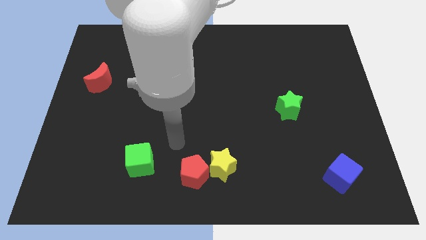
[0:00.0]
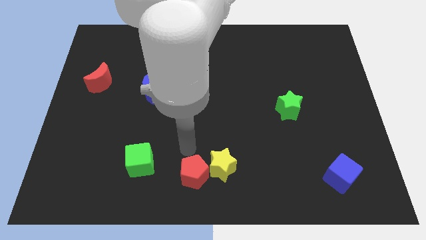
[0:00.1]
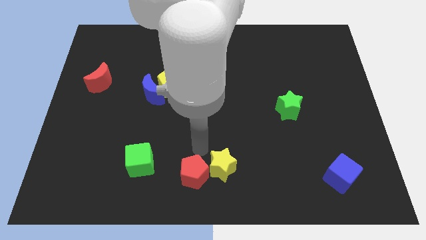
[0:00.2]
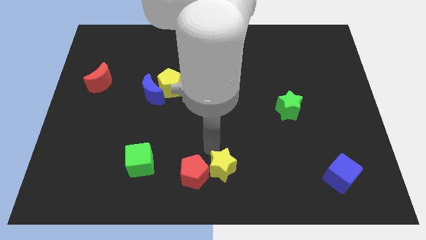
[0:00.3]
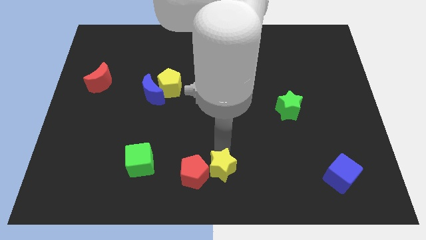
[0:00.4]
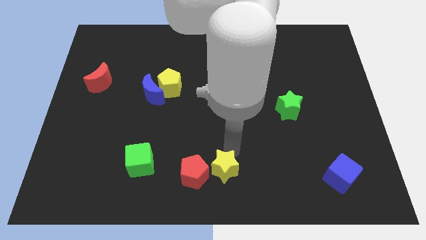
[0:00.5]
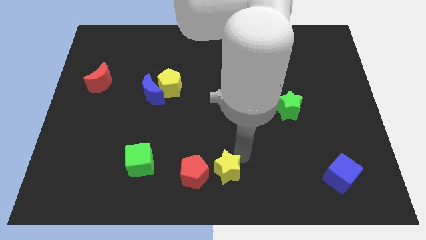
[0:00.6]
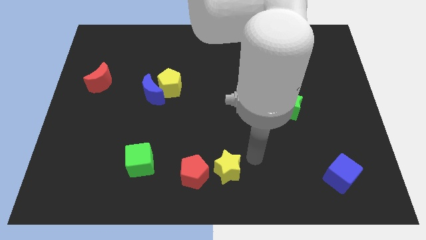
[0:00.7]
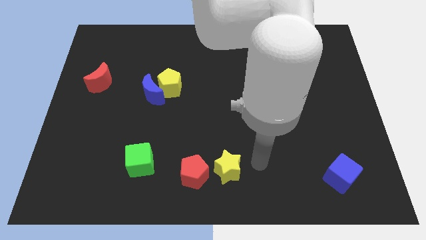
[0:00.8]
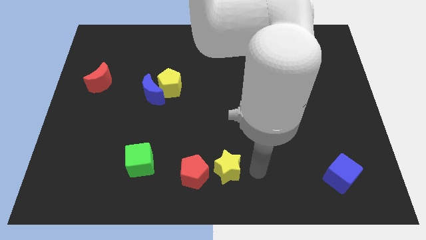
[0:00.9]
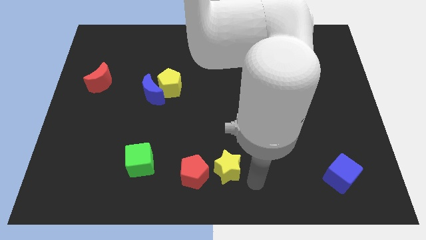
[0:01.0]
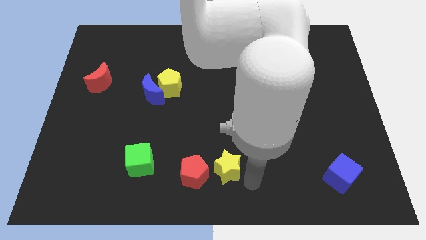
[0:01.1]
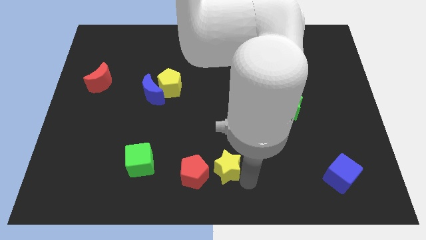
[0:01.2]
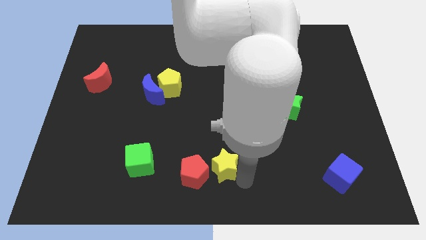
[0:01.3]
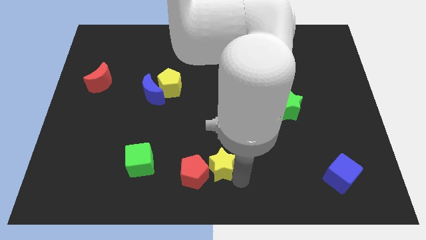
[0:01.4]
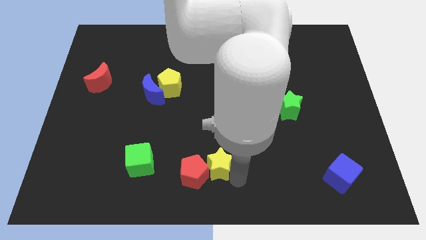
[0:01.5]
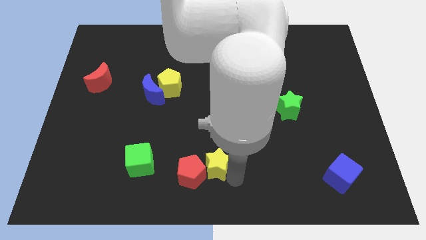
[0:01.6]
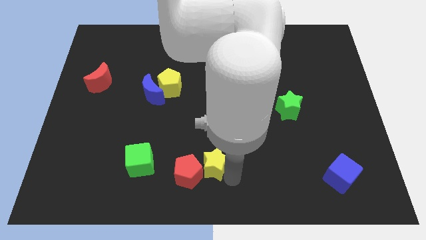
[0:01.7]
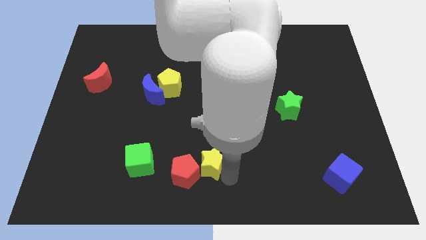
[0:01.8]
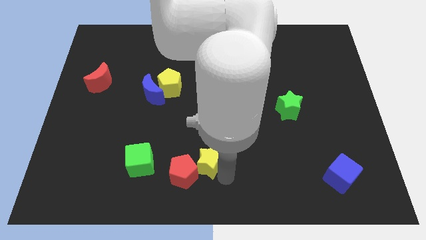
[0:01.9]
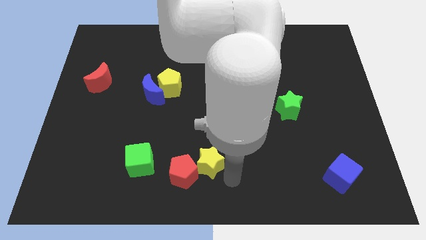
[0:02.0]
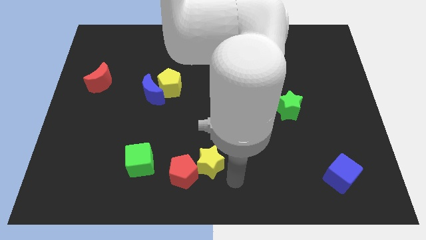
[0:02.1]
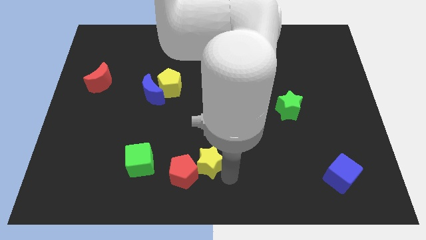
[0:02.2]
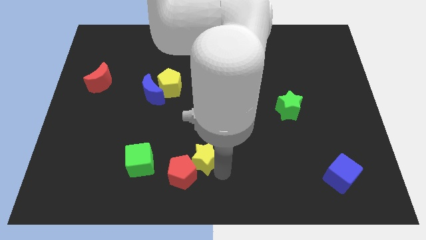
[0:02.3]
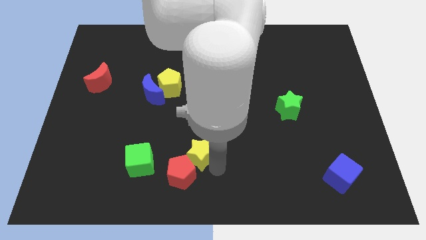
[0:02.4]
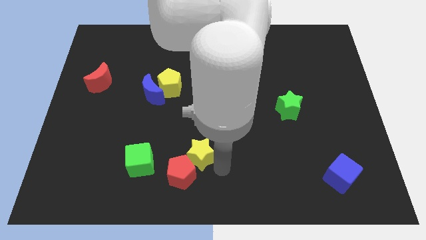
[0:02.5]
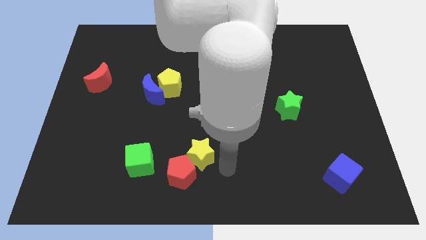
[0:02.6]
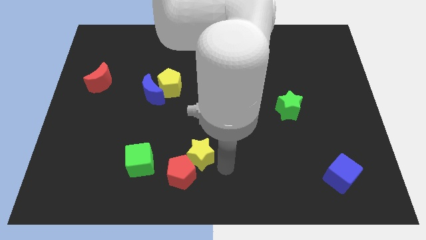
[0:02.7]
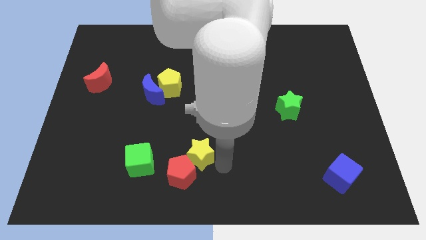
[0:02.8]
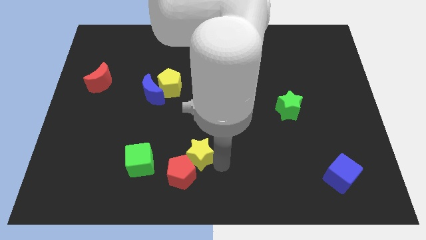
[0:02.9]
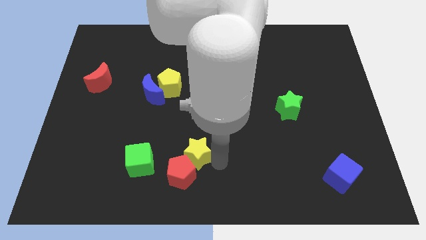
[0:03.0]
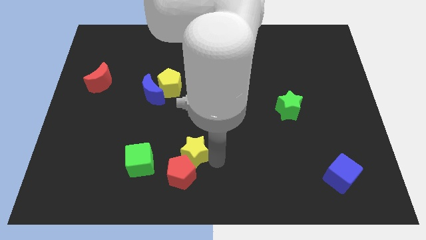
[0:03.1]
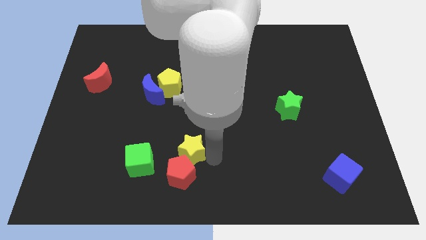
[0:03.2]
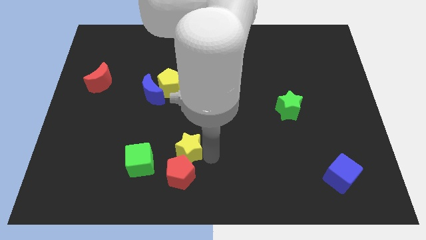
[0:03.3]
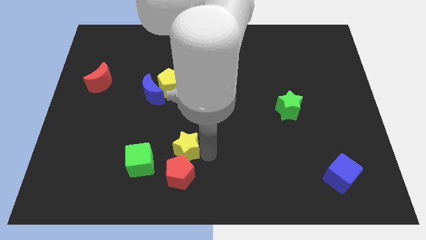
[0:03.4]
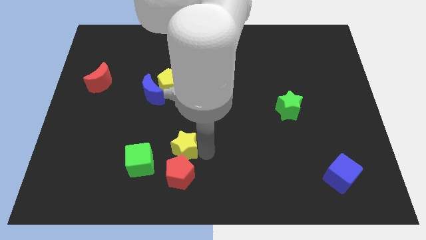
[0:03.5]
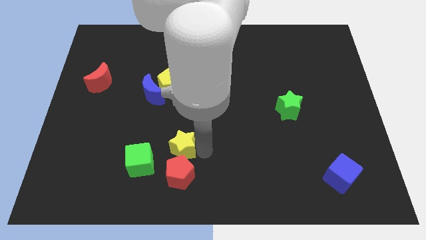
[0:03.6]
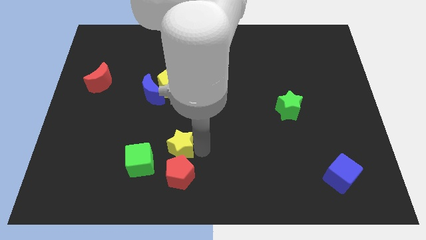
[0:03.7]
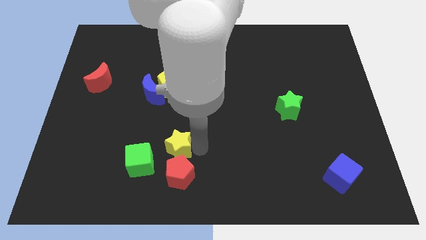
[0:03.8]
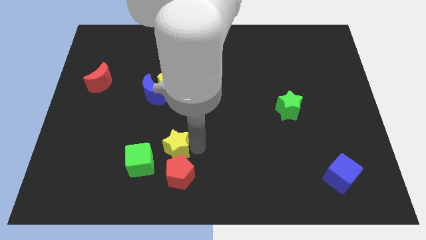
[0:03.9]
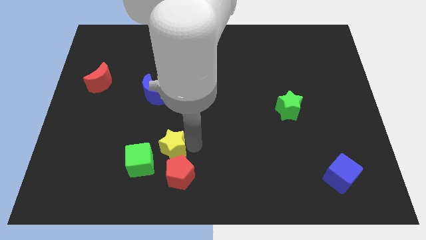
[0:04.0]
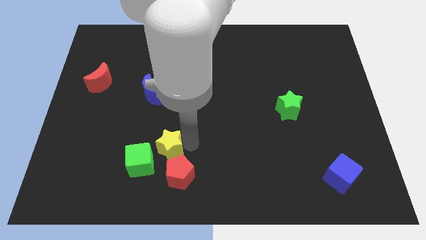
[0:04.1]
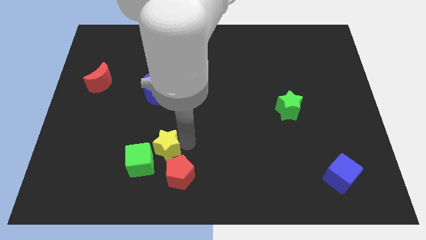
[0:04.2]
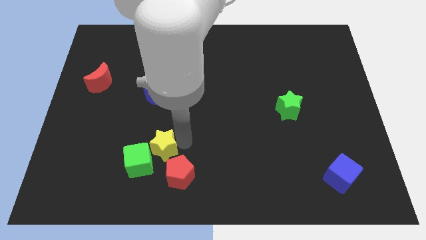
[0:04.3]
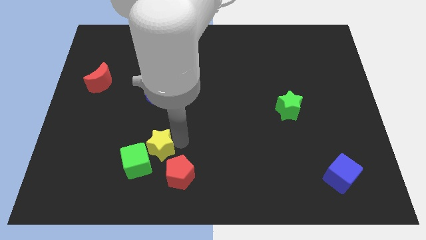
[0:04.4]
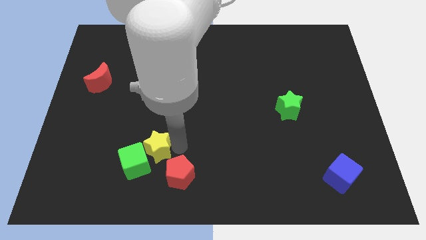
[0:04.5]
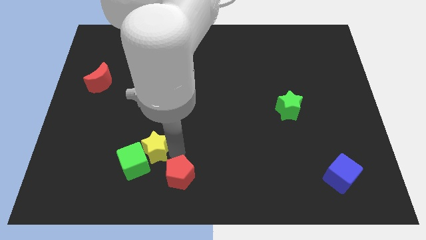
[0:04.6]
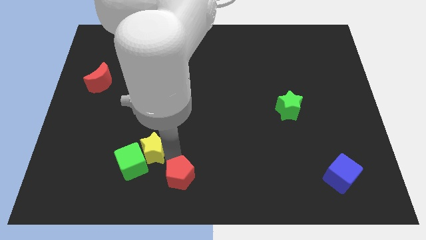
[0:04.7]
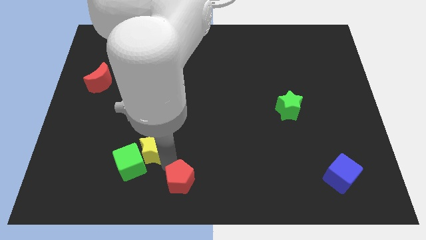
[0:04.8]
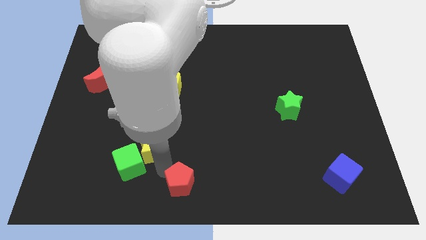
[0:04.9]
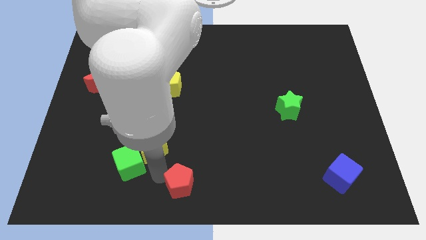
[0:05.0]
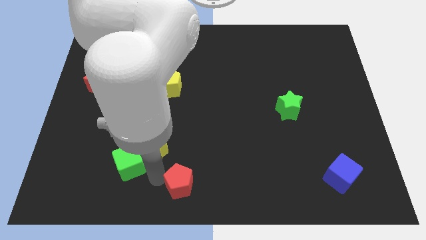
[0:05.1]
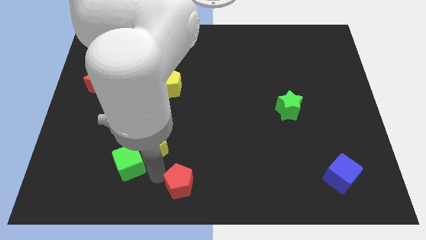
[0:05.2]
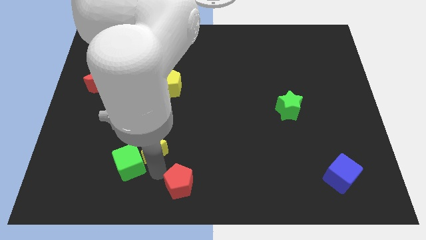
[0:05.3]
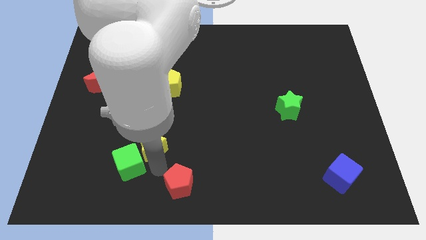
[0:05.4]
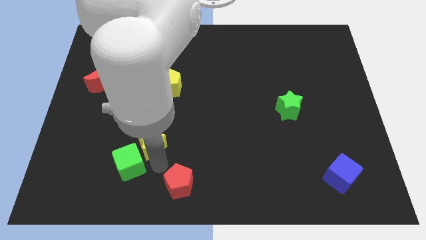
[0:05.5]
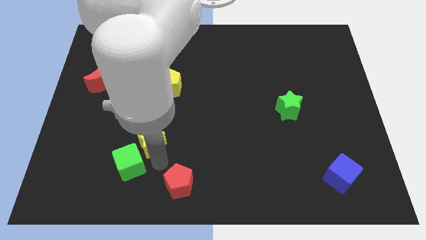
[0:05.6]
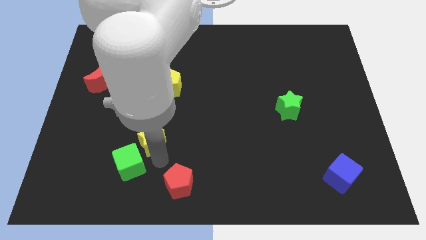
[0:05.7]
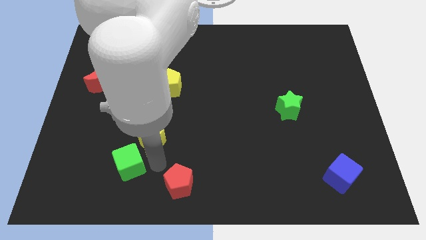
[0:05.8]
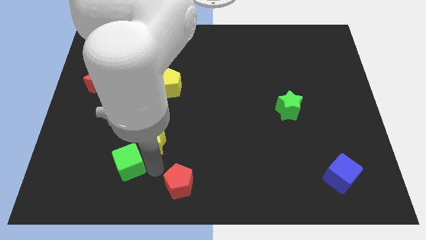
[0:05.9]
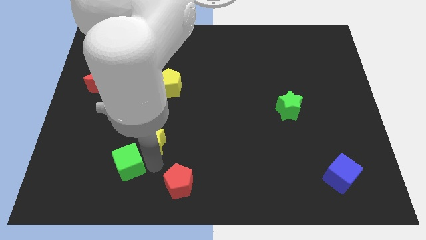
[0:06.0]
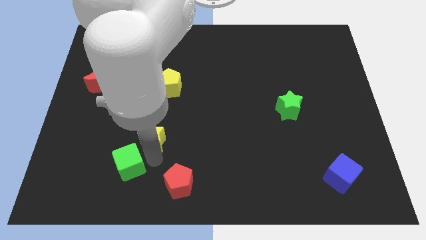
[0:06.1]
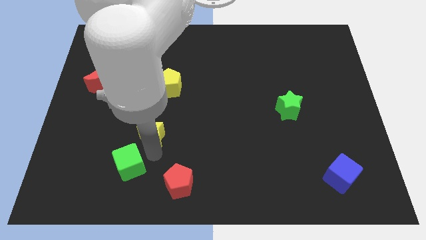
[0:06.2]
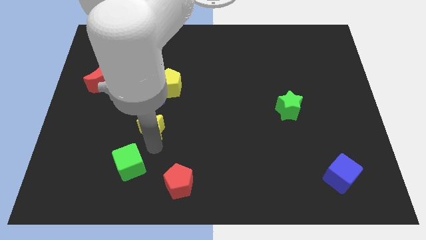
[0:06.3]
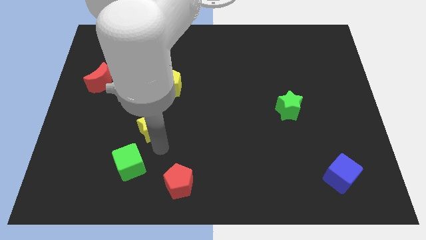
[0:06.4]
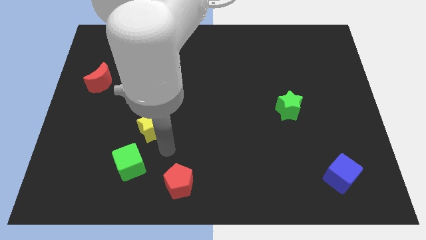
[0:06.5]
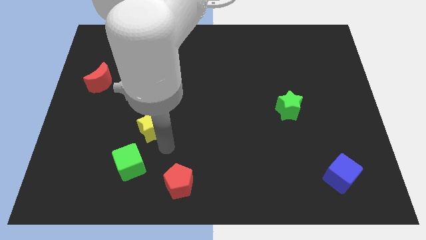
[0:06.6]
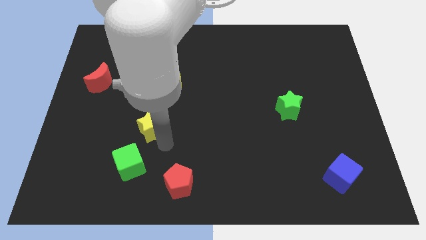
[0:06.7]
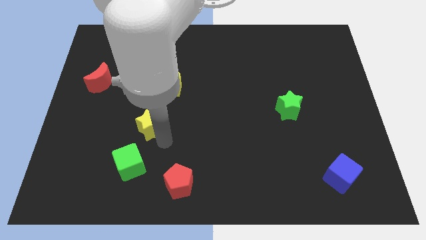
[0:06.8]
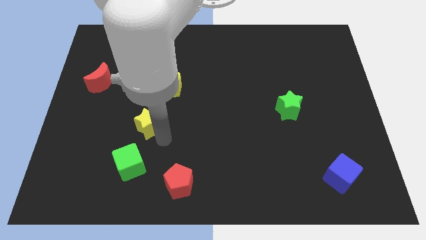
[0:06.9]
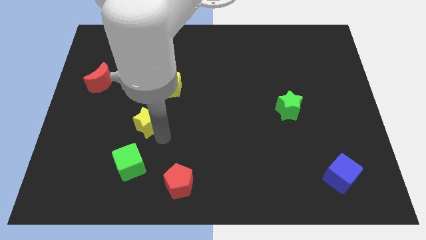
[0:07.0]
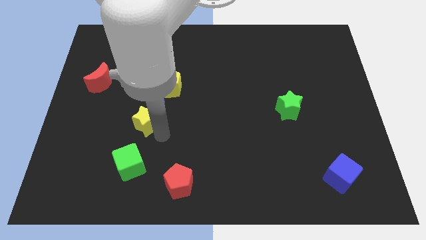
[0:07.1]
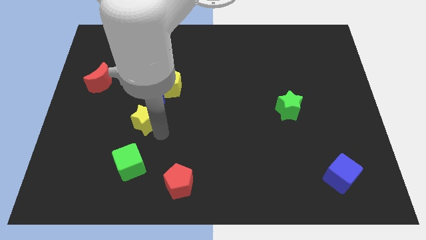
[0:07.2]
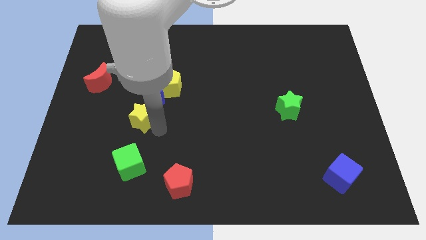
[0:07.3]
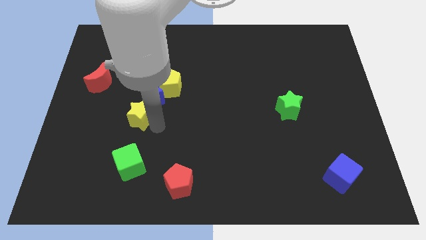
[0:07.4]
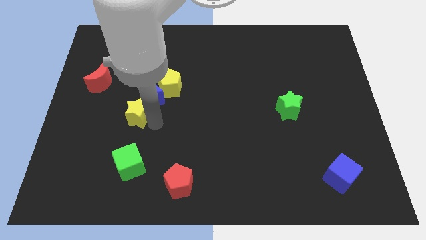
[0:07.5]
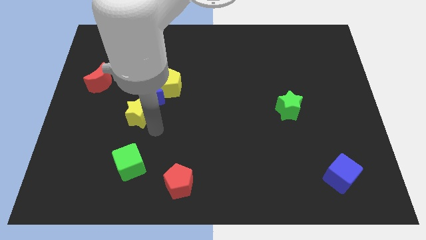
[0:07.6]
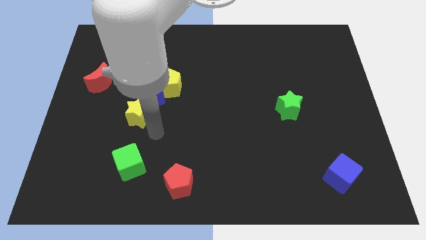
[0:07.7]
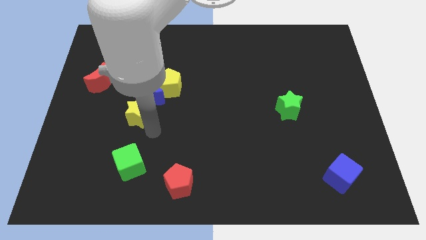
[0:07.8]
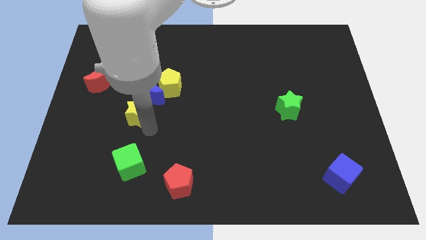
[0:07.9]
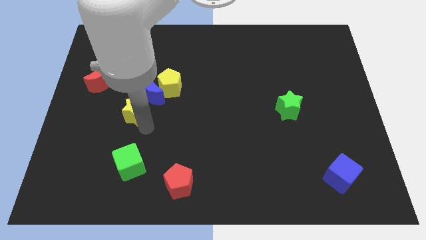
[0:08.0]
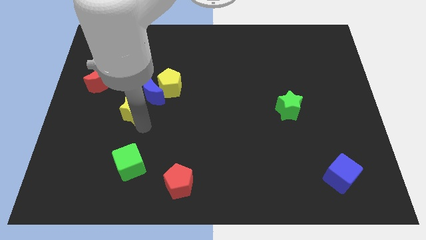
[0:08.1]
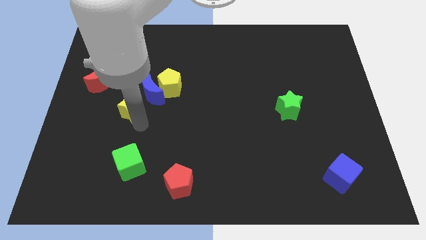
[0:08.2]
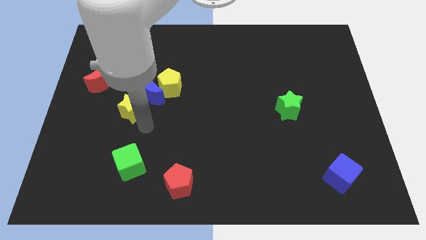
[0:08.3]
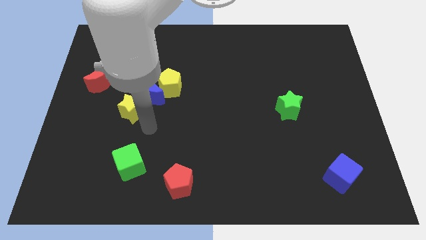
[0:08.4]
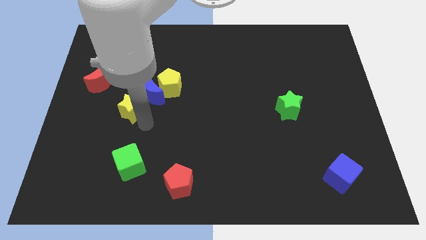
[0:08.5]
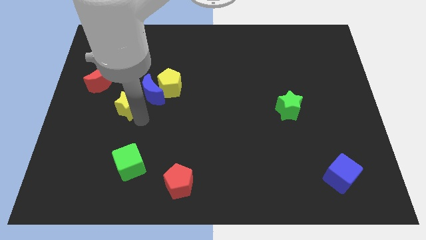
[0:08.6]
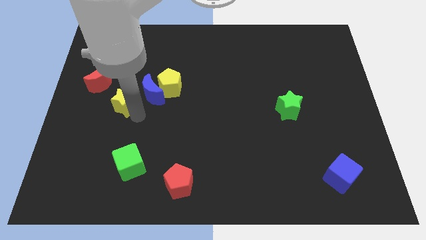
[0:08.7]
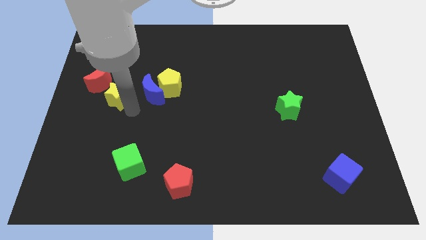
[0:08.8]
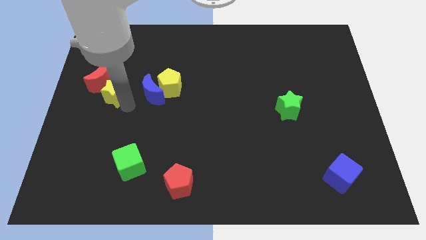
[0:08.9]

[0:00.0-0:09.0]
slide the yellow star towards the red moon
